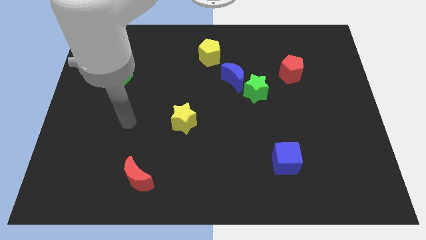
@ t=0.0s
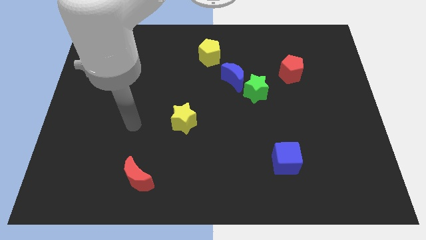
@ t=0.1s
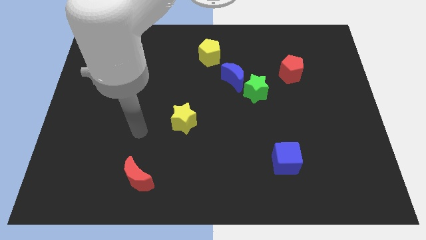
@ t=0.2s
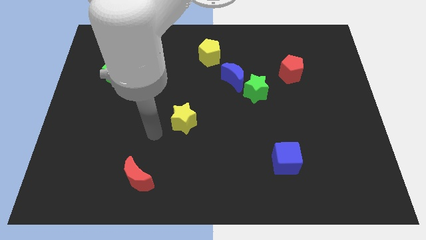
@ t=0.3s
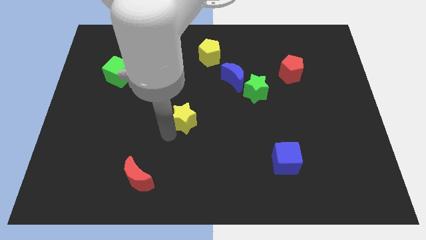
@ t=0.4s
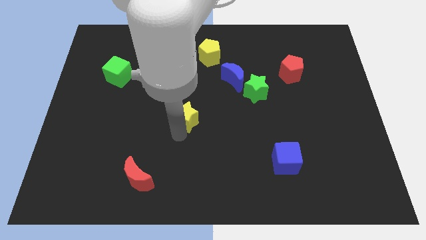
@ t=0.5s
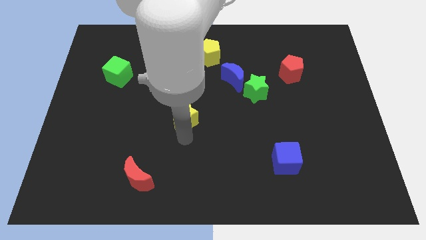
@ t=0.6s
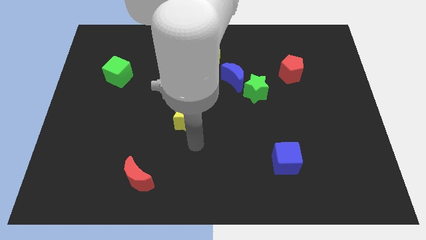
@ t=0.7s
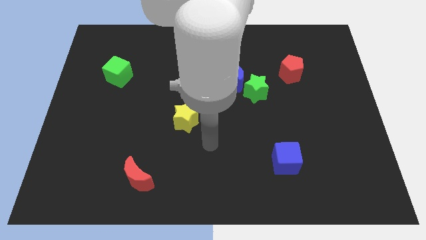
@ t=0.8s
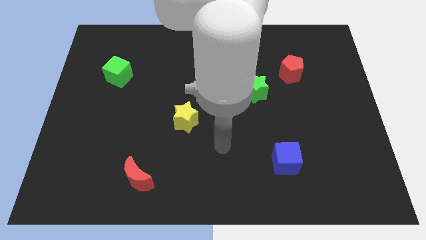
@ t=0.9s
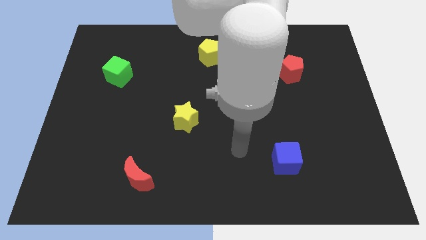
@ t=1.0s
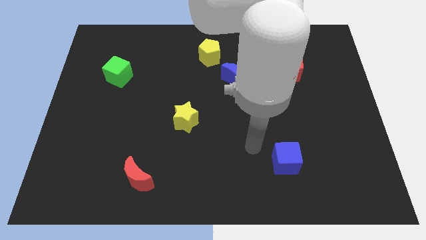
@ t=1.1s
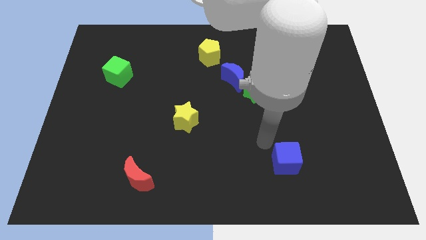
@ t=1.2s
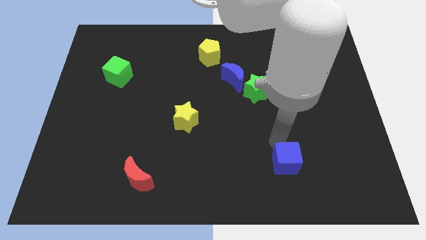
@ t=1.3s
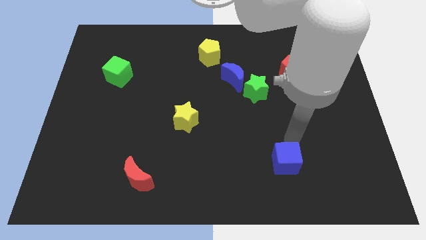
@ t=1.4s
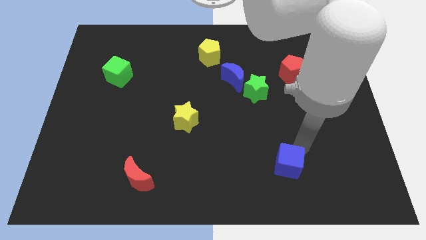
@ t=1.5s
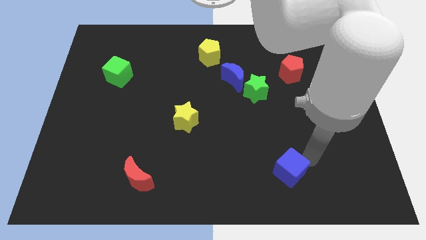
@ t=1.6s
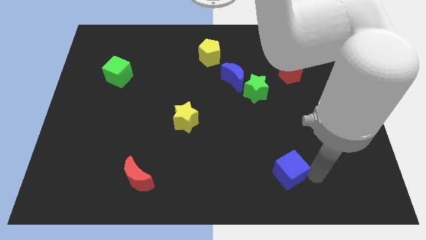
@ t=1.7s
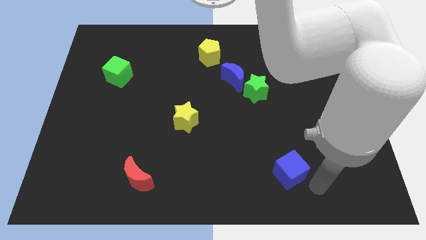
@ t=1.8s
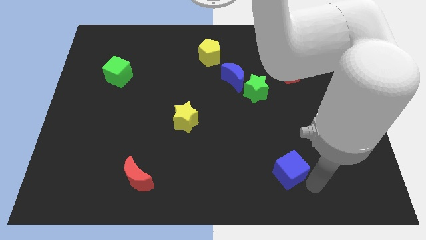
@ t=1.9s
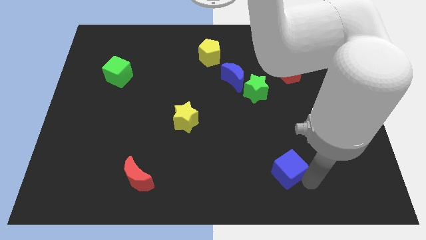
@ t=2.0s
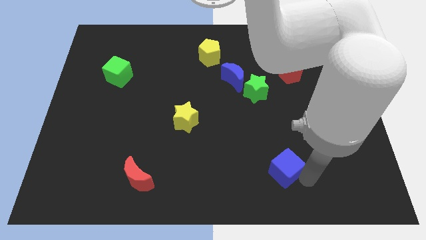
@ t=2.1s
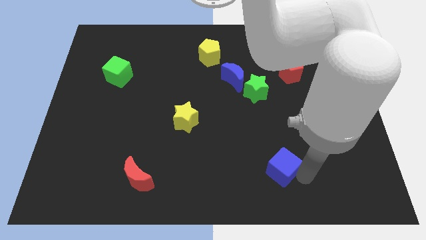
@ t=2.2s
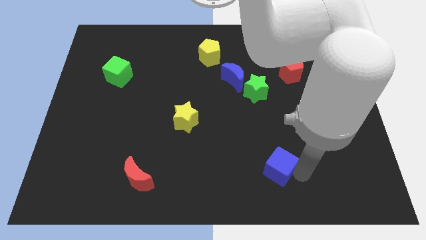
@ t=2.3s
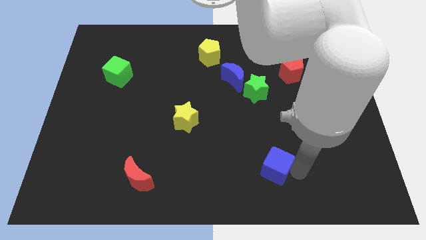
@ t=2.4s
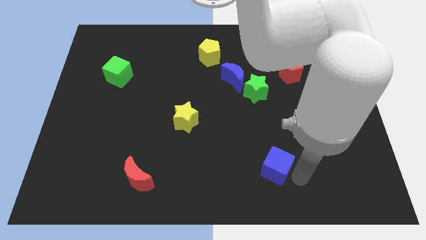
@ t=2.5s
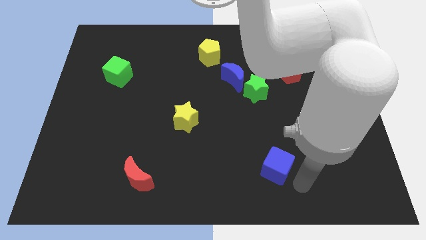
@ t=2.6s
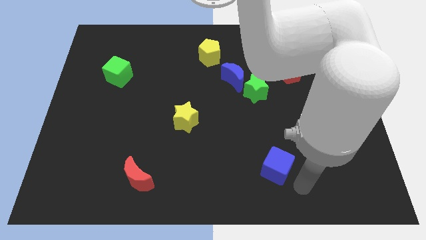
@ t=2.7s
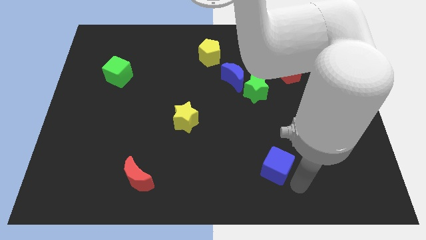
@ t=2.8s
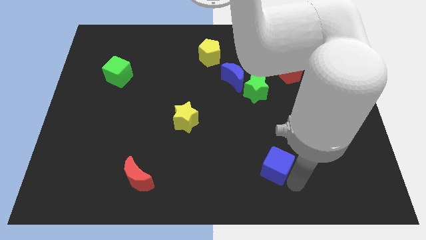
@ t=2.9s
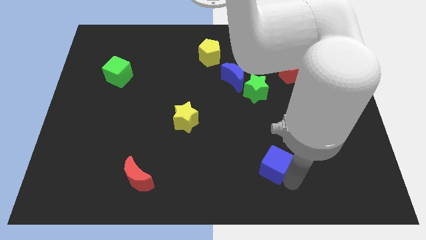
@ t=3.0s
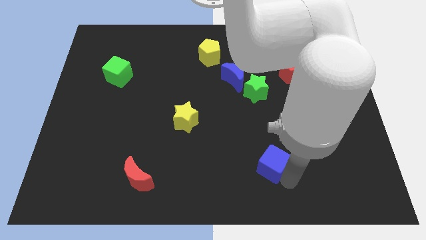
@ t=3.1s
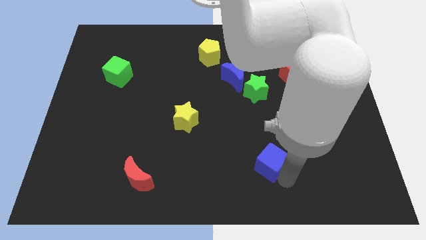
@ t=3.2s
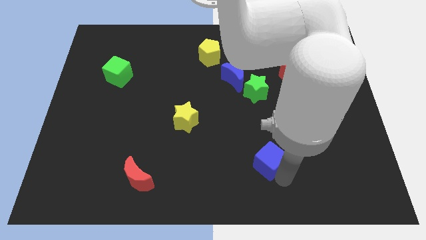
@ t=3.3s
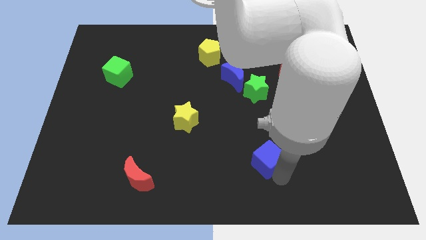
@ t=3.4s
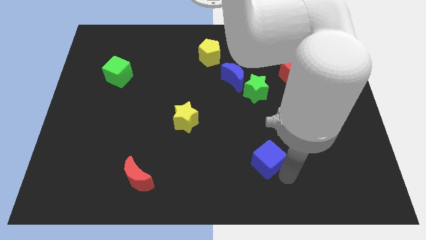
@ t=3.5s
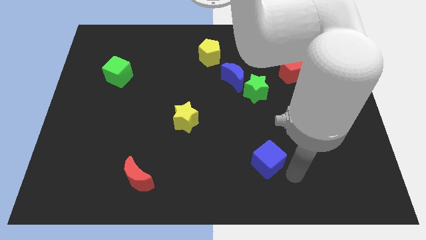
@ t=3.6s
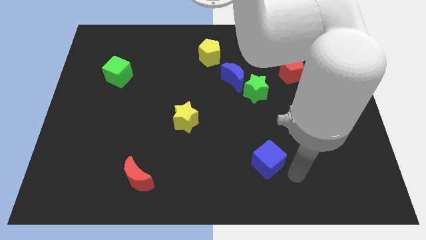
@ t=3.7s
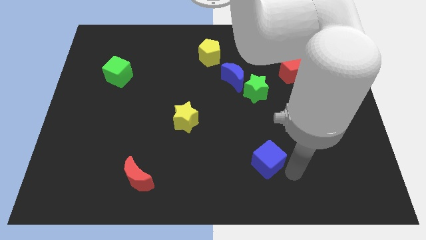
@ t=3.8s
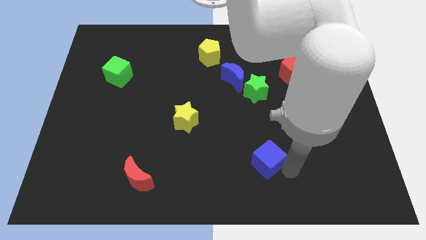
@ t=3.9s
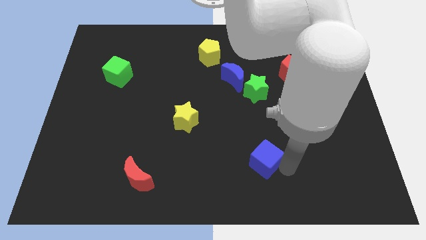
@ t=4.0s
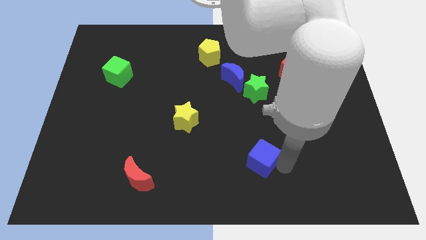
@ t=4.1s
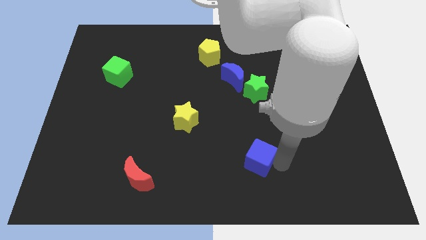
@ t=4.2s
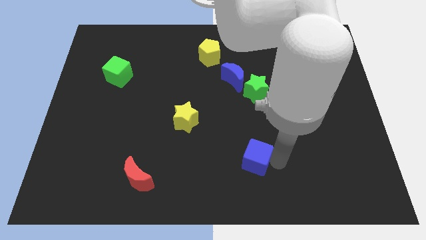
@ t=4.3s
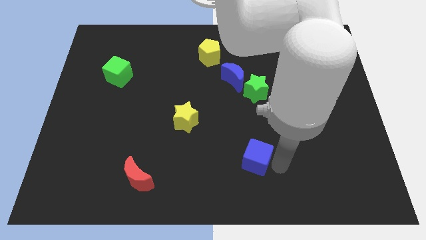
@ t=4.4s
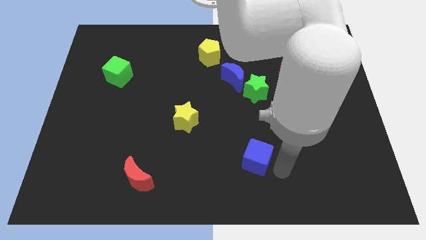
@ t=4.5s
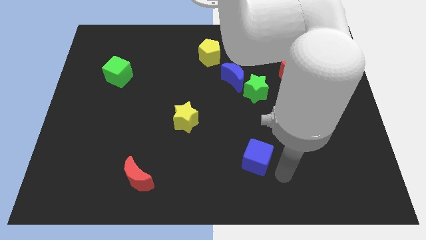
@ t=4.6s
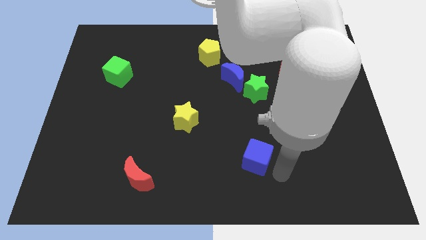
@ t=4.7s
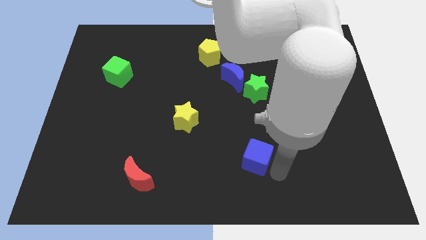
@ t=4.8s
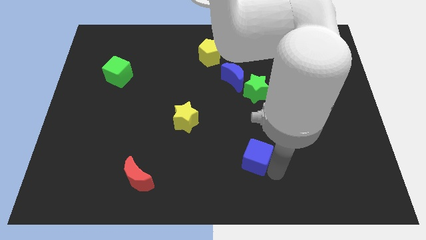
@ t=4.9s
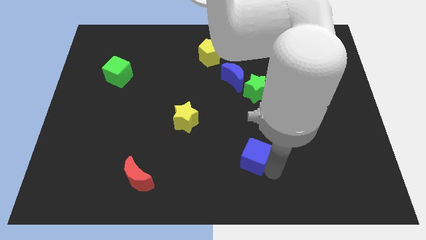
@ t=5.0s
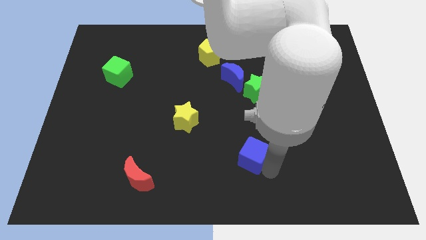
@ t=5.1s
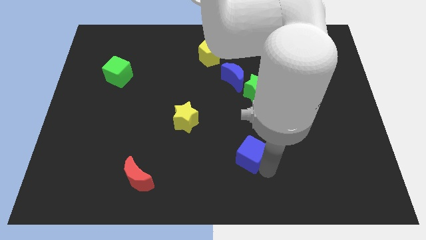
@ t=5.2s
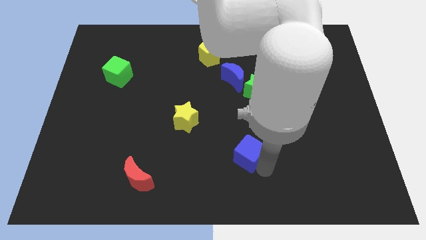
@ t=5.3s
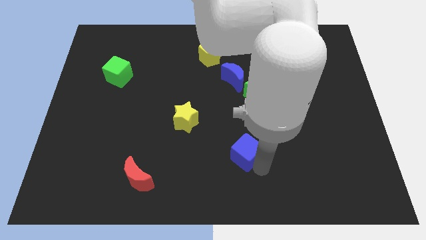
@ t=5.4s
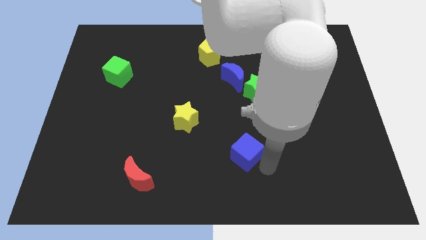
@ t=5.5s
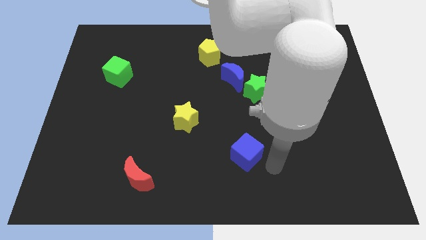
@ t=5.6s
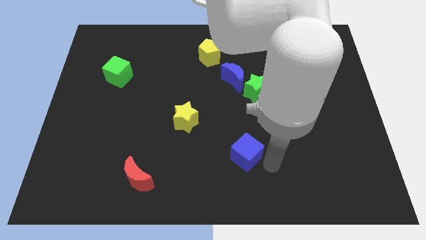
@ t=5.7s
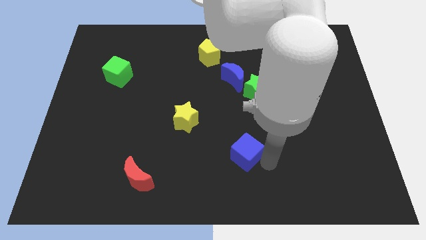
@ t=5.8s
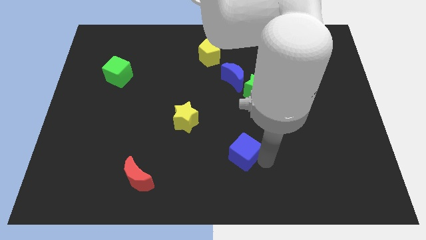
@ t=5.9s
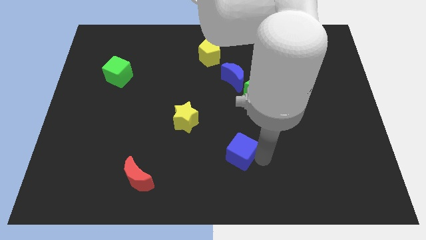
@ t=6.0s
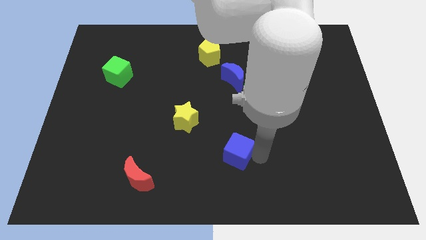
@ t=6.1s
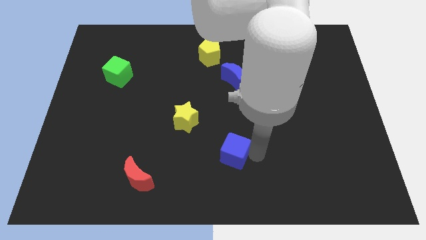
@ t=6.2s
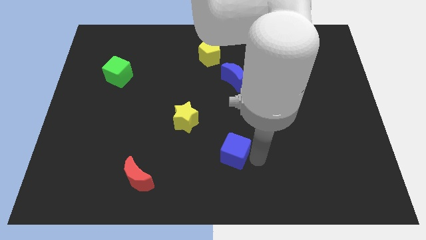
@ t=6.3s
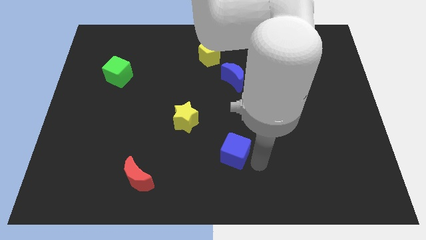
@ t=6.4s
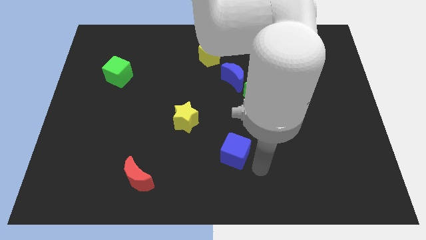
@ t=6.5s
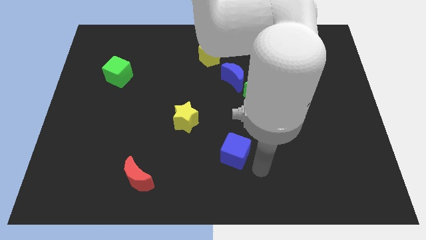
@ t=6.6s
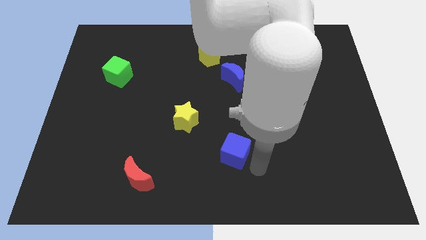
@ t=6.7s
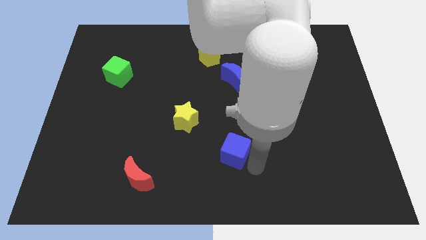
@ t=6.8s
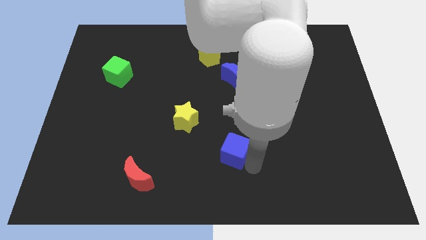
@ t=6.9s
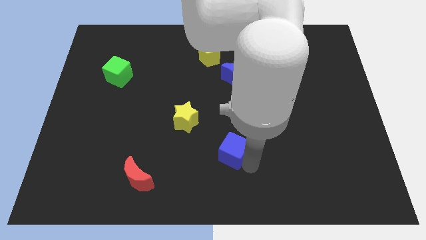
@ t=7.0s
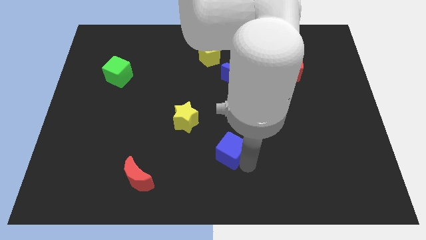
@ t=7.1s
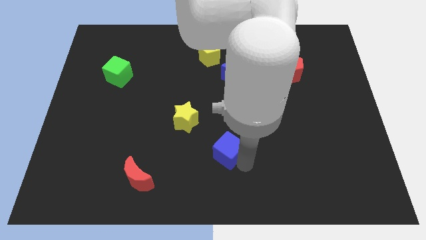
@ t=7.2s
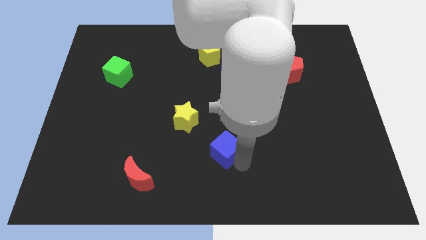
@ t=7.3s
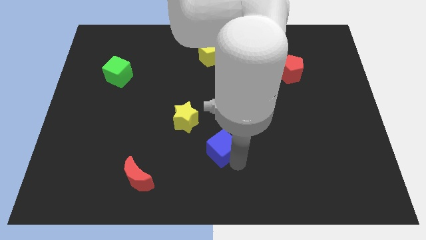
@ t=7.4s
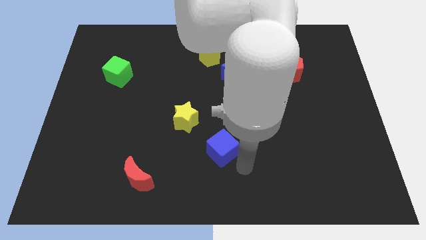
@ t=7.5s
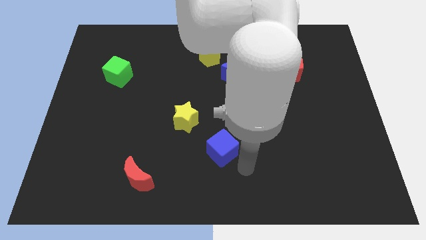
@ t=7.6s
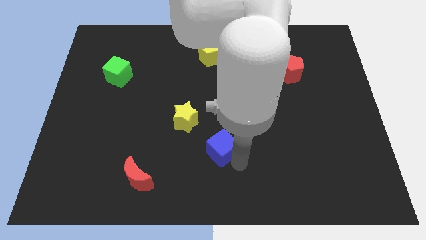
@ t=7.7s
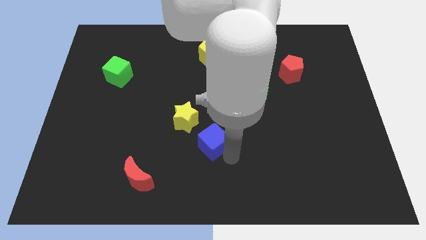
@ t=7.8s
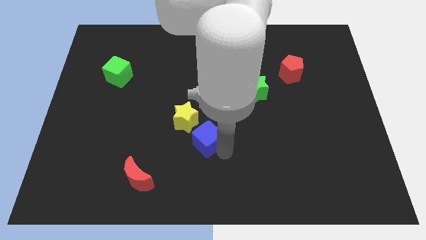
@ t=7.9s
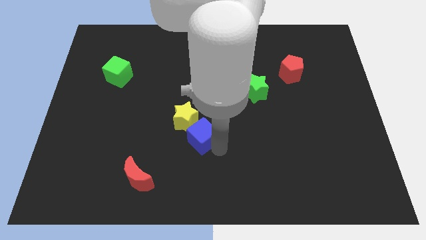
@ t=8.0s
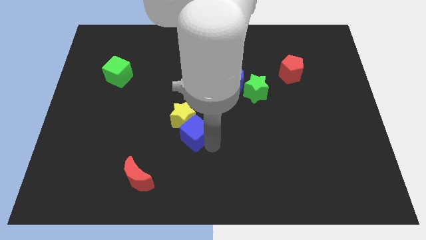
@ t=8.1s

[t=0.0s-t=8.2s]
put the blue cube towards the yellow star
